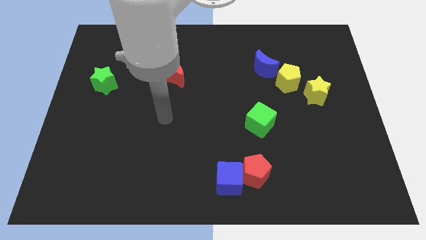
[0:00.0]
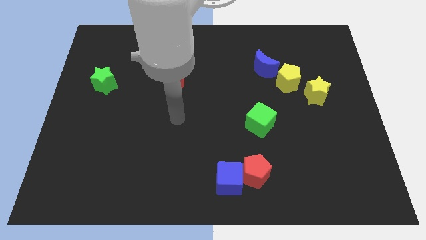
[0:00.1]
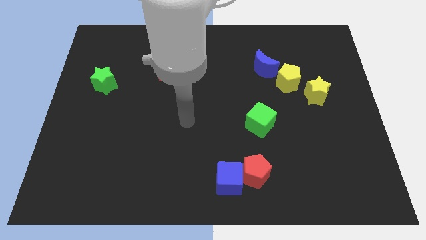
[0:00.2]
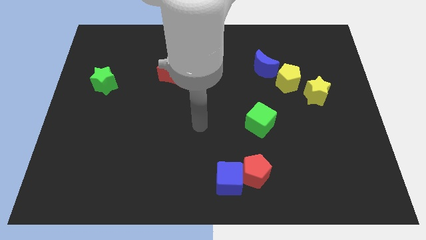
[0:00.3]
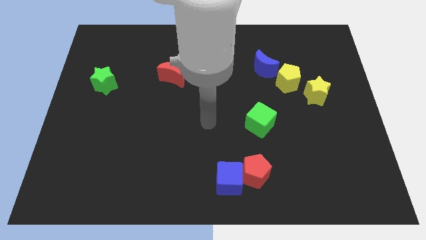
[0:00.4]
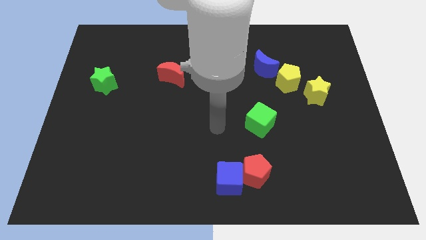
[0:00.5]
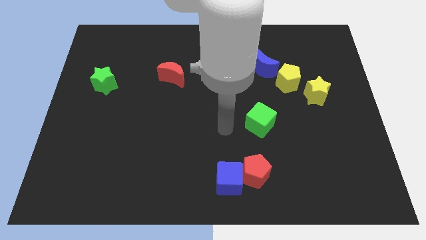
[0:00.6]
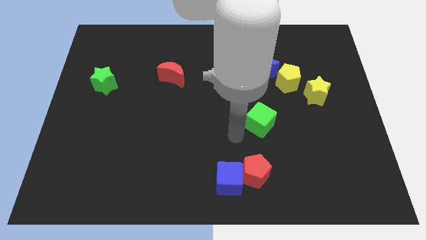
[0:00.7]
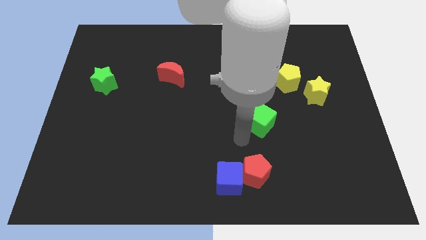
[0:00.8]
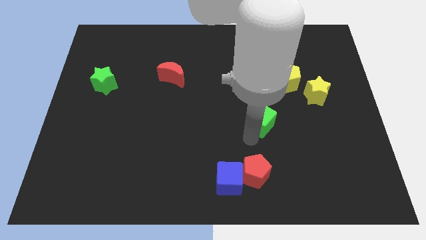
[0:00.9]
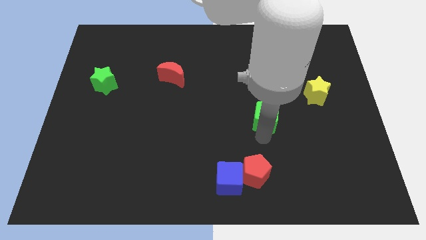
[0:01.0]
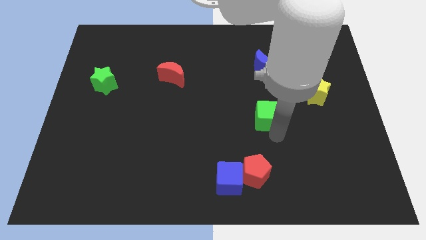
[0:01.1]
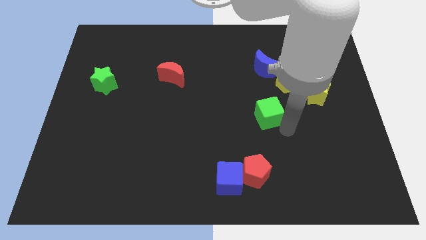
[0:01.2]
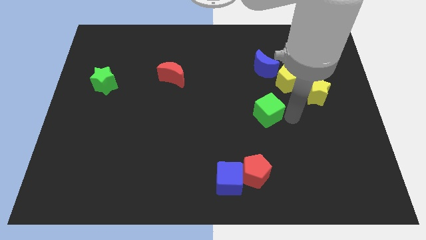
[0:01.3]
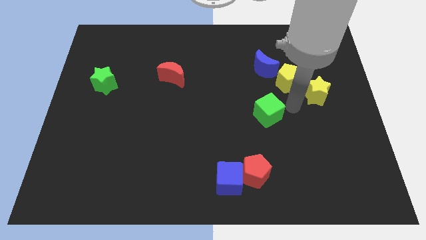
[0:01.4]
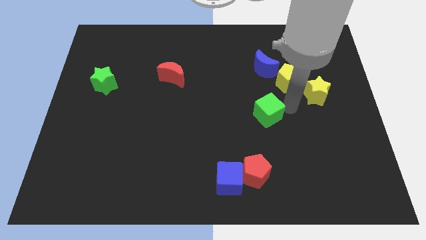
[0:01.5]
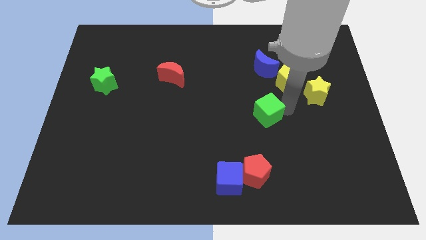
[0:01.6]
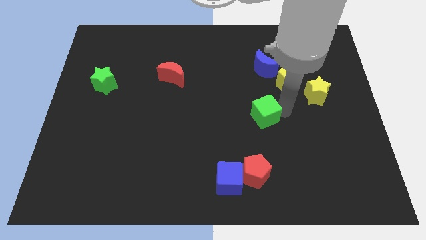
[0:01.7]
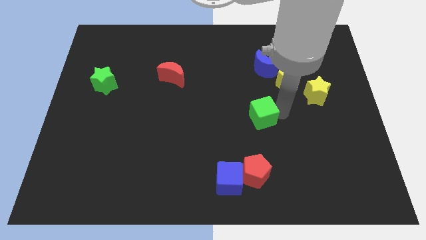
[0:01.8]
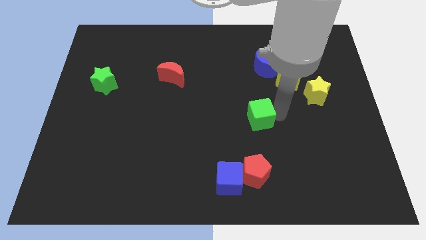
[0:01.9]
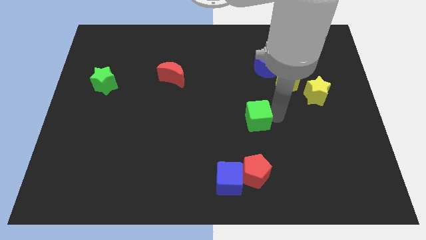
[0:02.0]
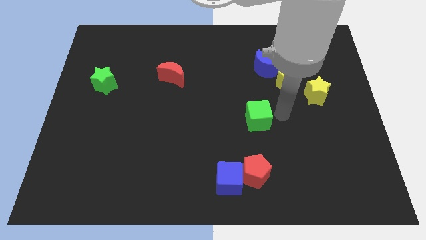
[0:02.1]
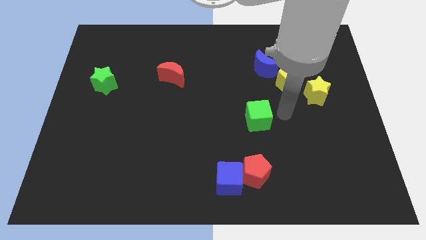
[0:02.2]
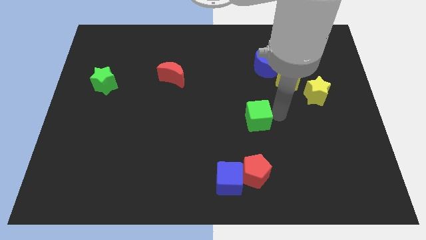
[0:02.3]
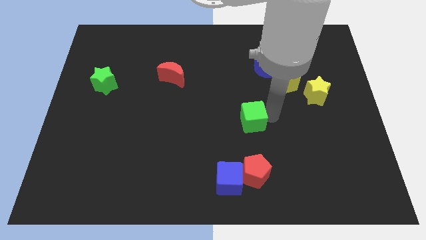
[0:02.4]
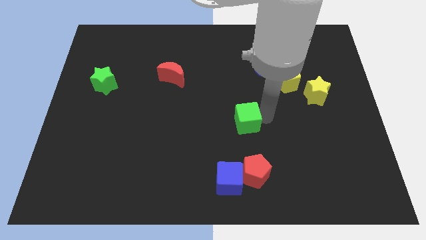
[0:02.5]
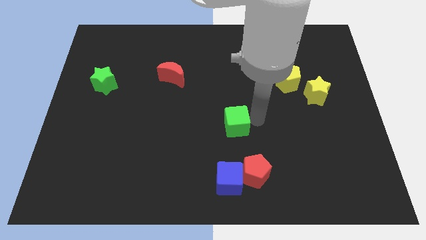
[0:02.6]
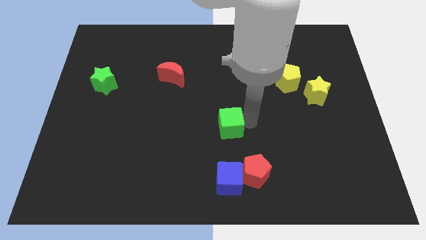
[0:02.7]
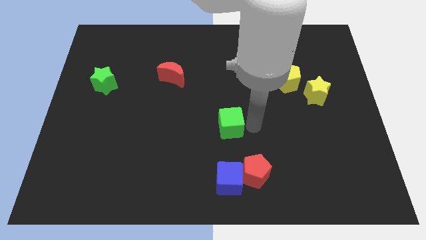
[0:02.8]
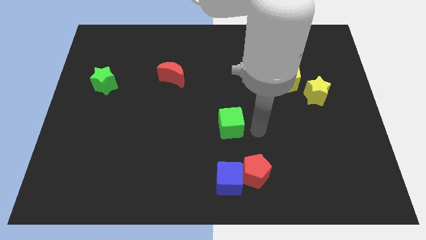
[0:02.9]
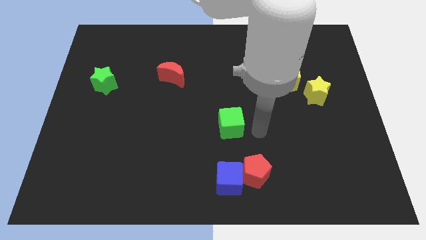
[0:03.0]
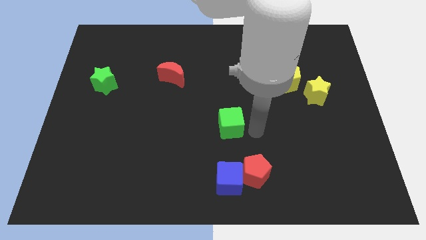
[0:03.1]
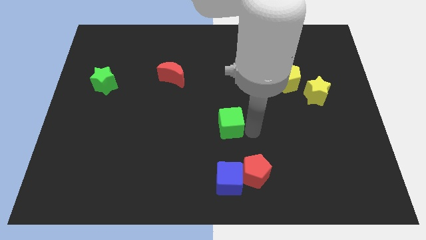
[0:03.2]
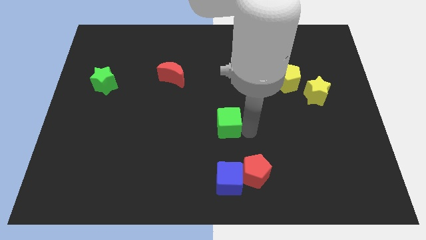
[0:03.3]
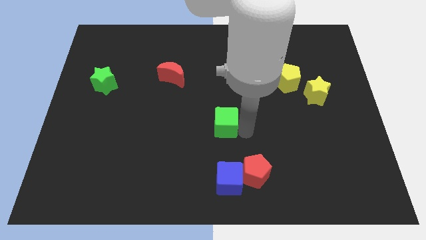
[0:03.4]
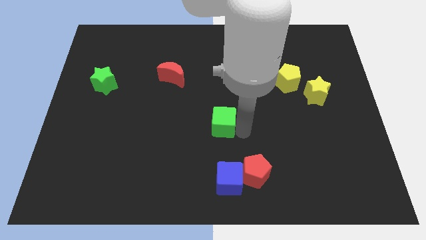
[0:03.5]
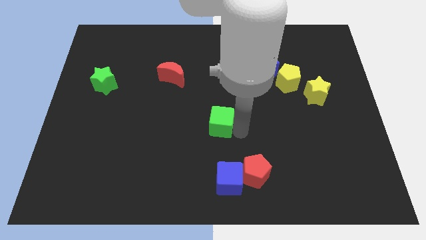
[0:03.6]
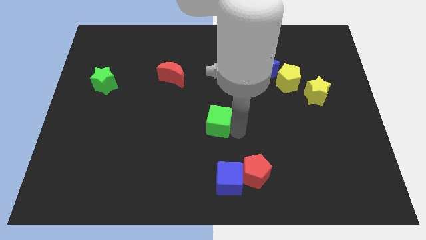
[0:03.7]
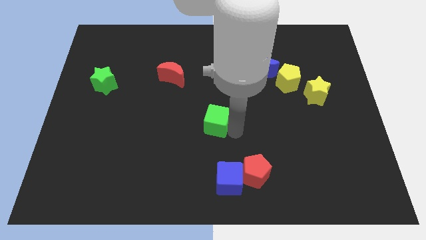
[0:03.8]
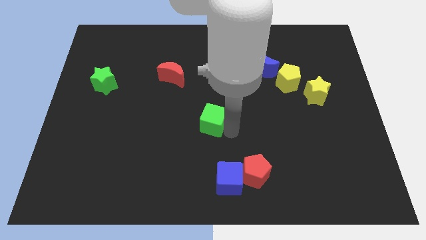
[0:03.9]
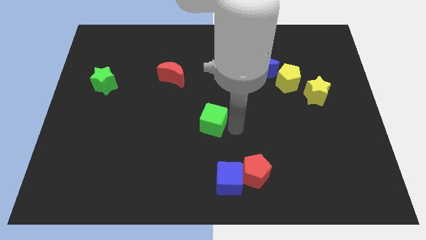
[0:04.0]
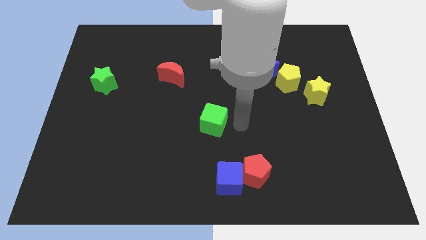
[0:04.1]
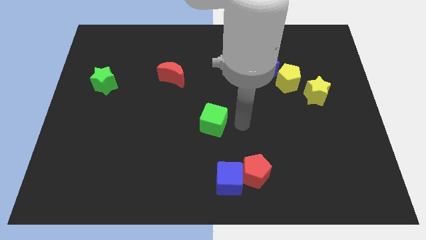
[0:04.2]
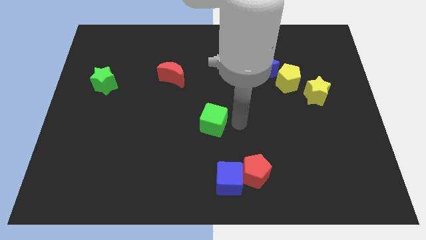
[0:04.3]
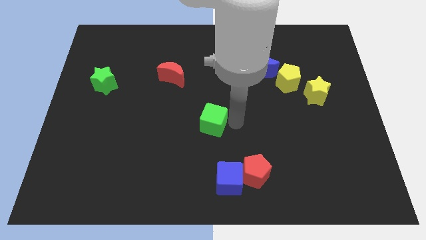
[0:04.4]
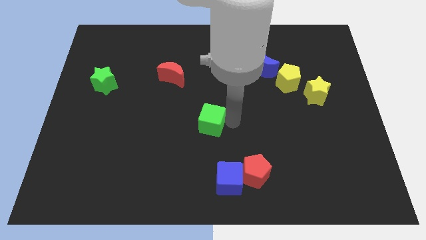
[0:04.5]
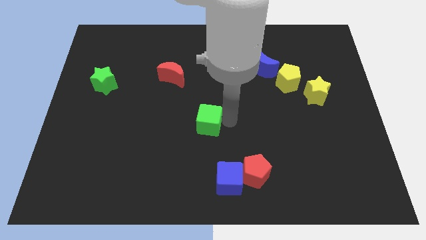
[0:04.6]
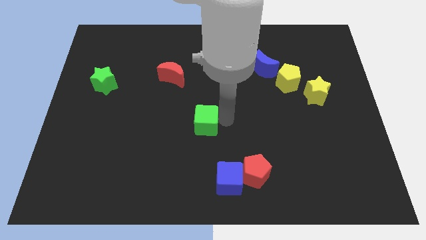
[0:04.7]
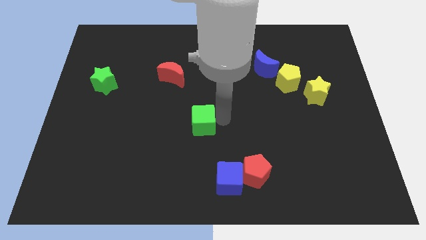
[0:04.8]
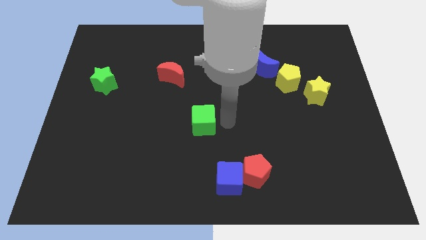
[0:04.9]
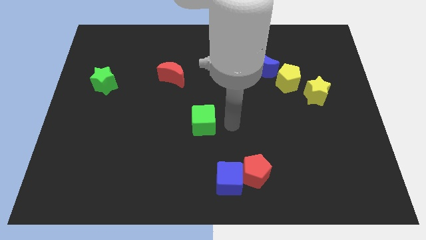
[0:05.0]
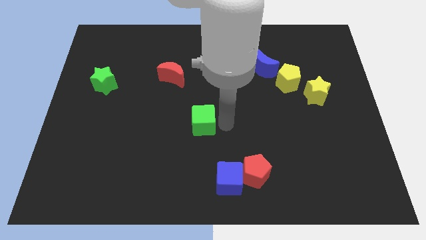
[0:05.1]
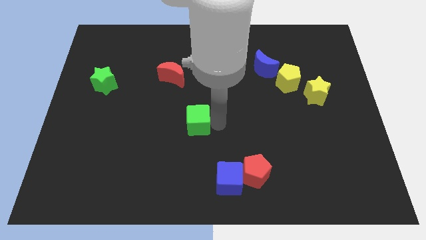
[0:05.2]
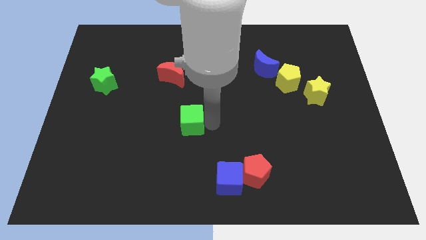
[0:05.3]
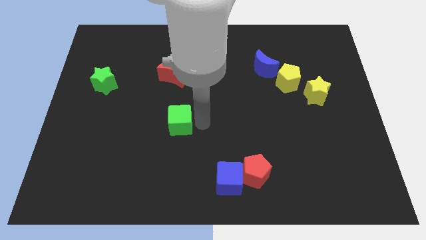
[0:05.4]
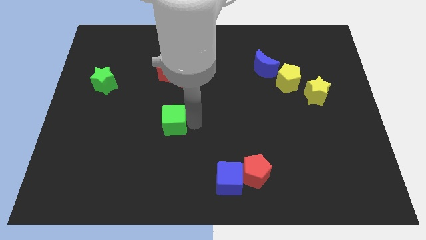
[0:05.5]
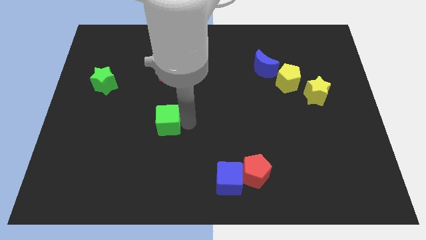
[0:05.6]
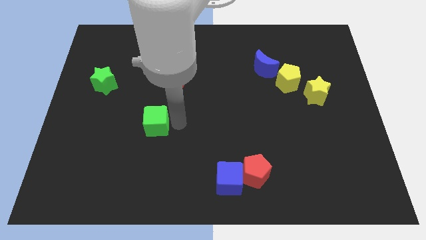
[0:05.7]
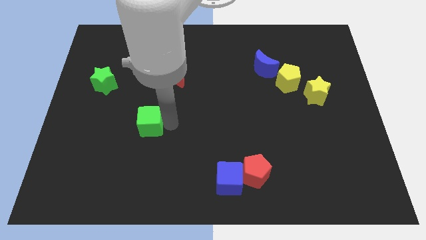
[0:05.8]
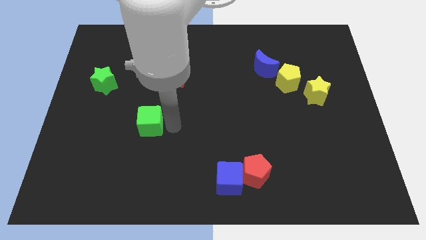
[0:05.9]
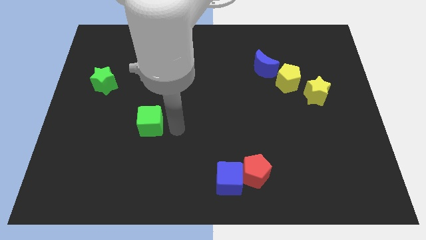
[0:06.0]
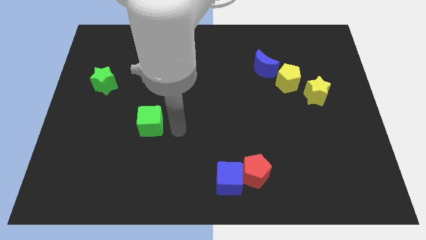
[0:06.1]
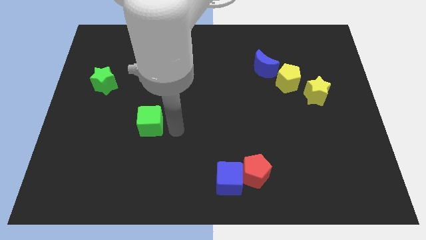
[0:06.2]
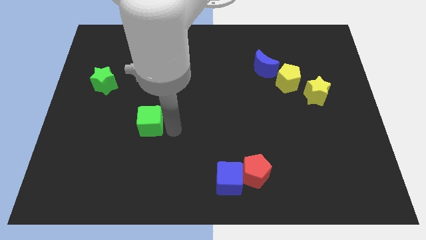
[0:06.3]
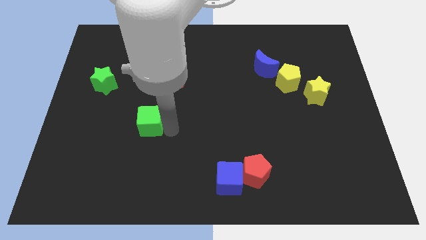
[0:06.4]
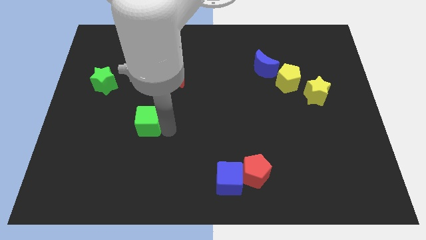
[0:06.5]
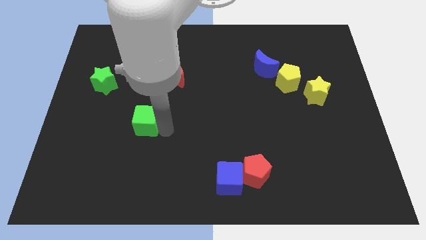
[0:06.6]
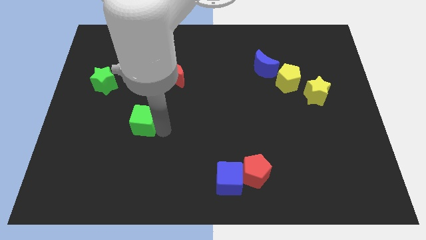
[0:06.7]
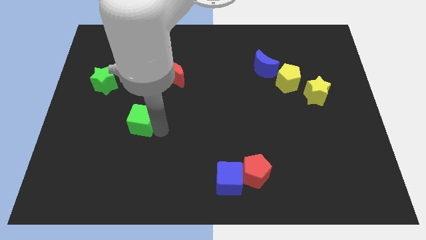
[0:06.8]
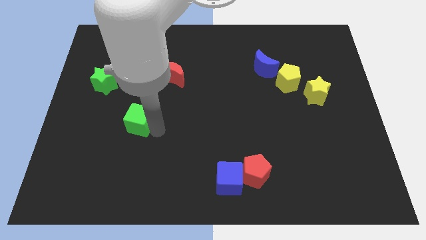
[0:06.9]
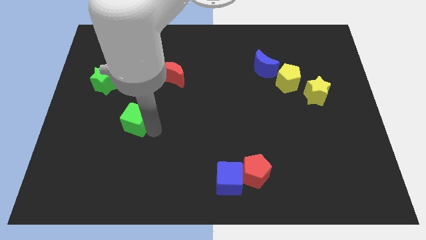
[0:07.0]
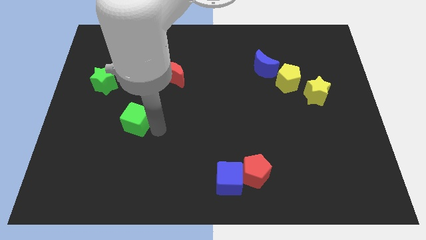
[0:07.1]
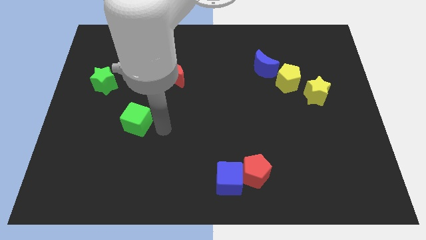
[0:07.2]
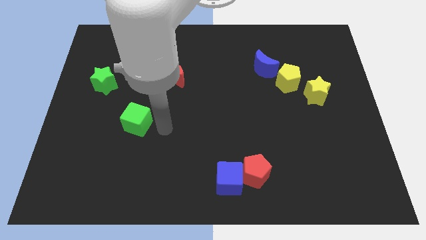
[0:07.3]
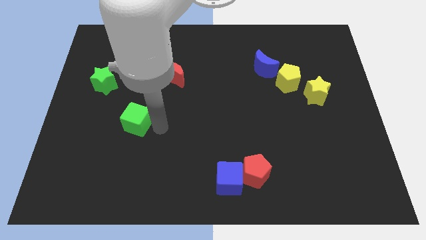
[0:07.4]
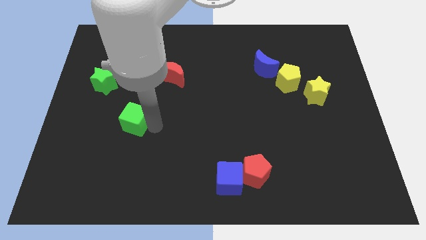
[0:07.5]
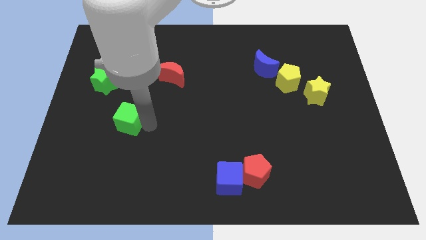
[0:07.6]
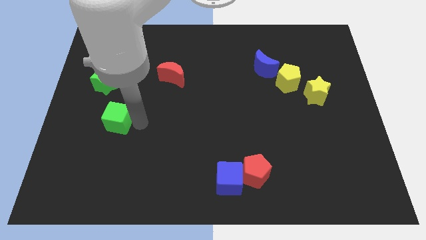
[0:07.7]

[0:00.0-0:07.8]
push the green cube below the green star
